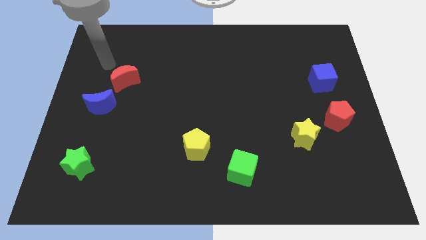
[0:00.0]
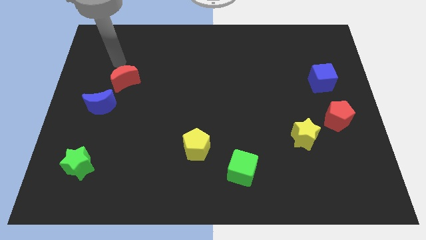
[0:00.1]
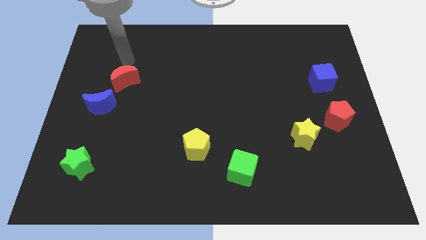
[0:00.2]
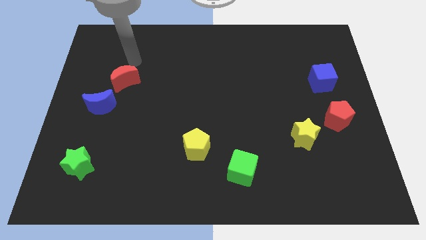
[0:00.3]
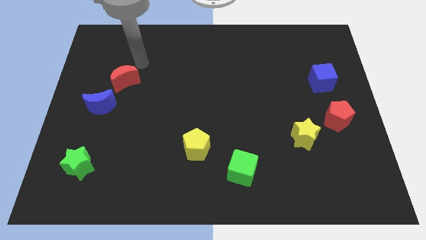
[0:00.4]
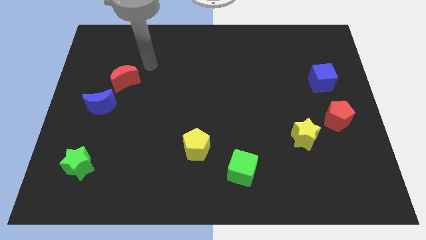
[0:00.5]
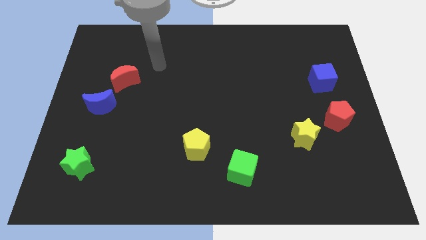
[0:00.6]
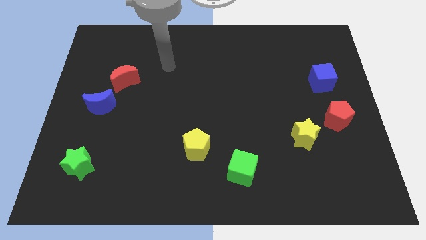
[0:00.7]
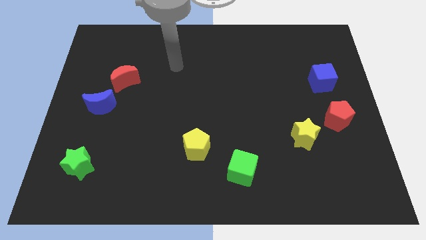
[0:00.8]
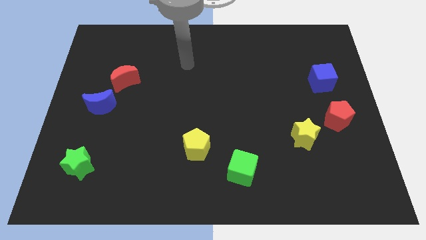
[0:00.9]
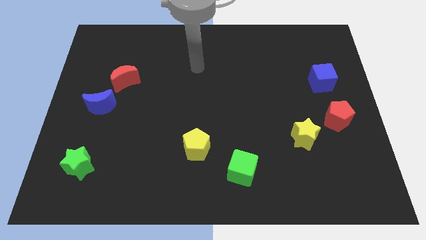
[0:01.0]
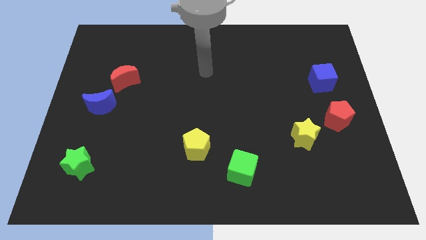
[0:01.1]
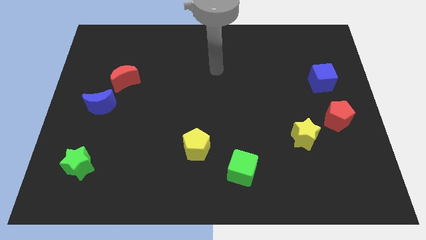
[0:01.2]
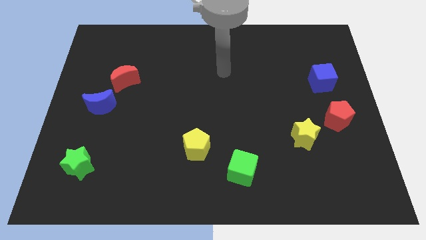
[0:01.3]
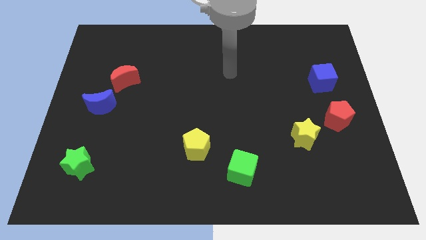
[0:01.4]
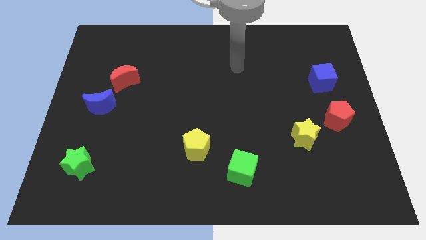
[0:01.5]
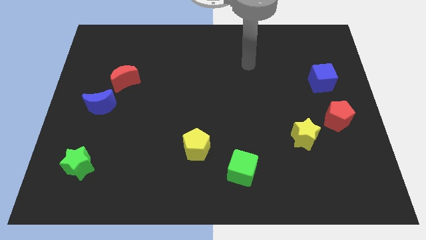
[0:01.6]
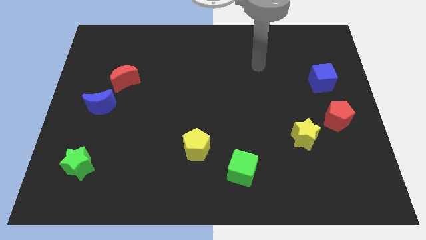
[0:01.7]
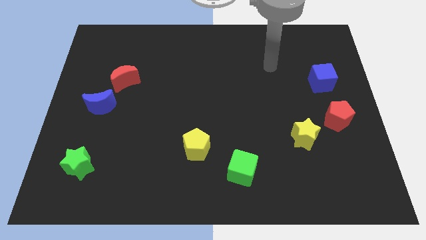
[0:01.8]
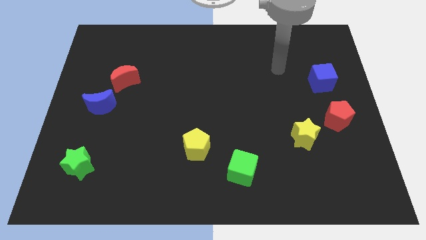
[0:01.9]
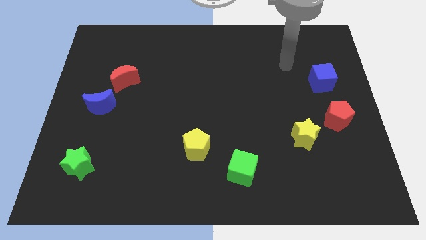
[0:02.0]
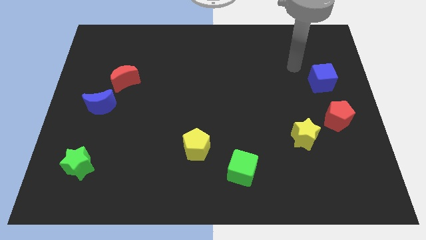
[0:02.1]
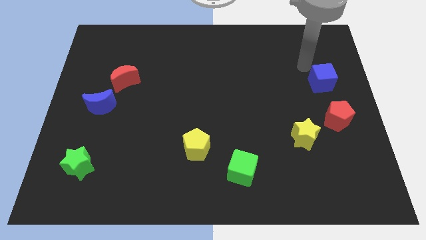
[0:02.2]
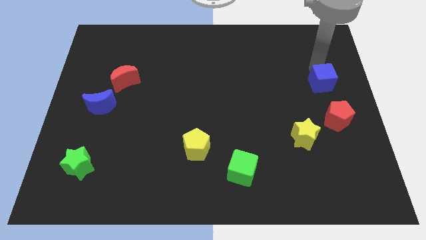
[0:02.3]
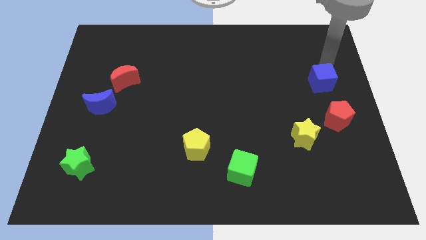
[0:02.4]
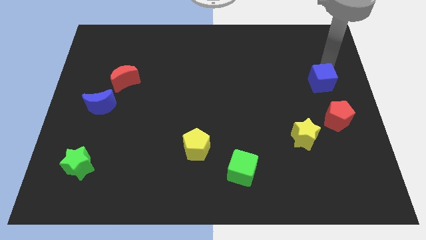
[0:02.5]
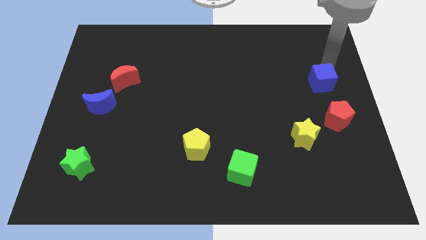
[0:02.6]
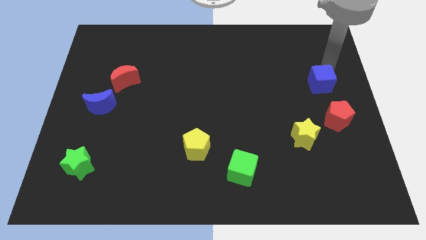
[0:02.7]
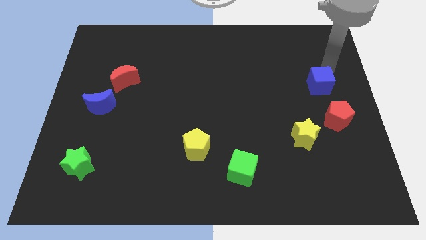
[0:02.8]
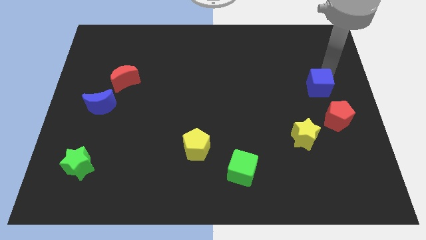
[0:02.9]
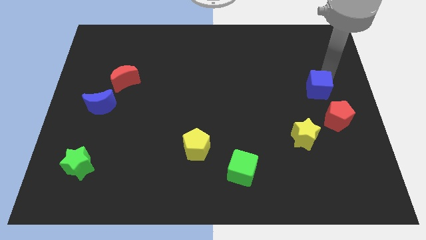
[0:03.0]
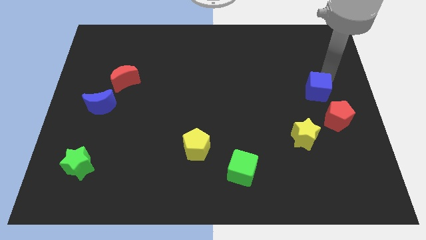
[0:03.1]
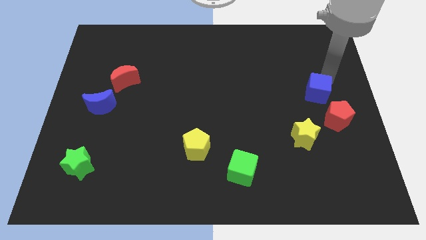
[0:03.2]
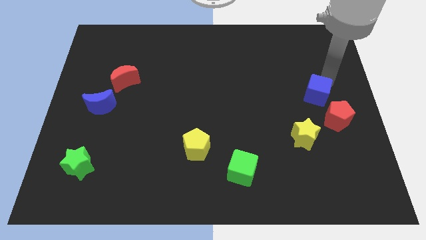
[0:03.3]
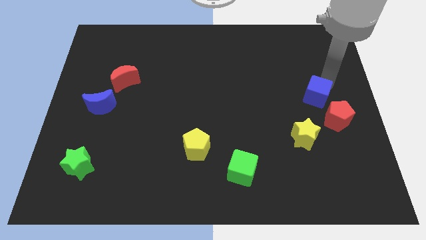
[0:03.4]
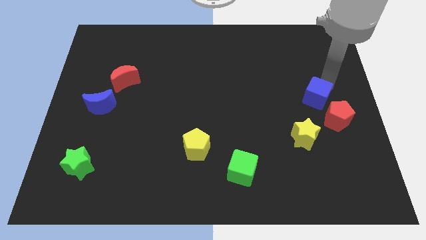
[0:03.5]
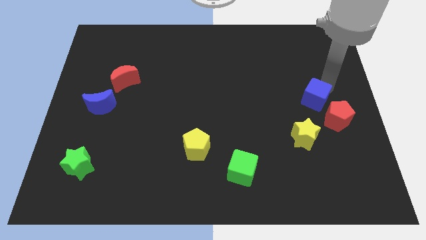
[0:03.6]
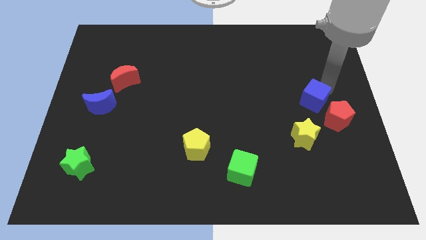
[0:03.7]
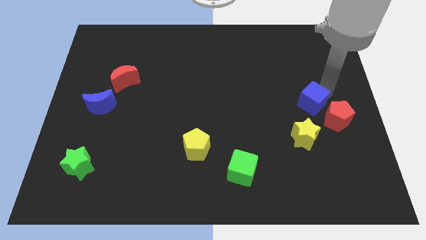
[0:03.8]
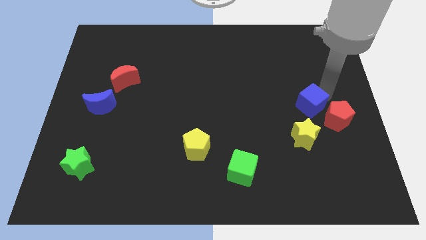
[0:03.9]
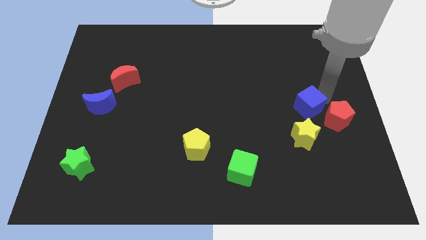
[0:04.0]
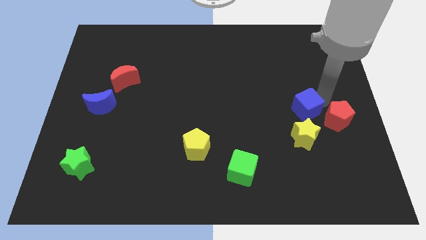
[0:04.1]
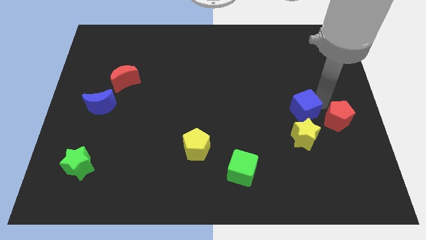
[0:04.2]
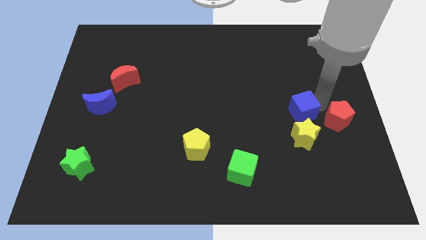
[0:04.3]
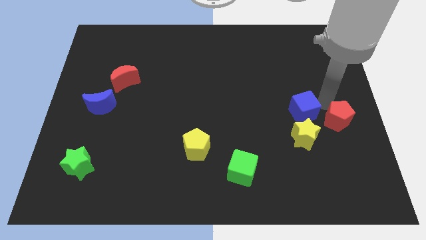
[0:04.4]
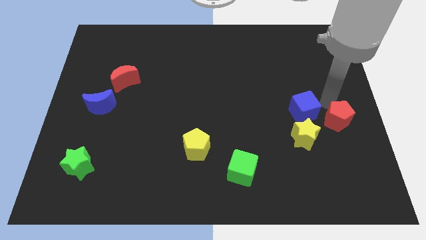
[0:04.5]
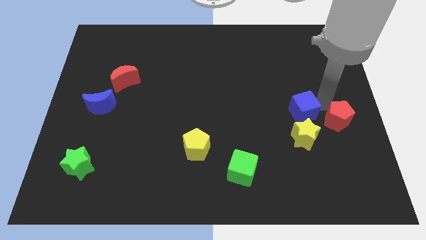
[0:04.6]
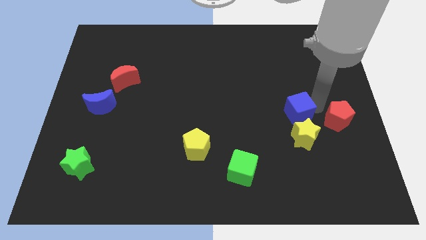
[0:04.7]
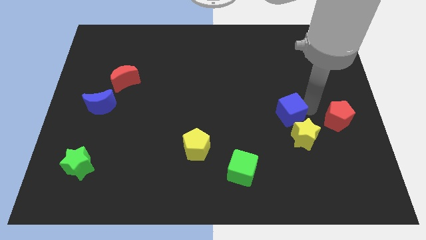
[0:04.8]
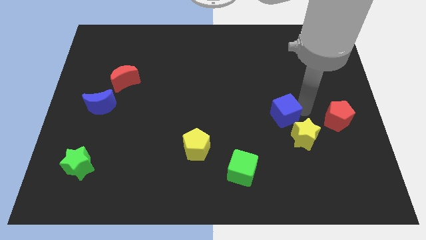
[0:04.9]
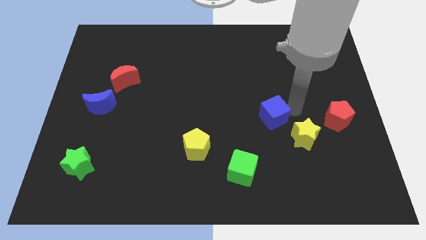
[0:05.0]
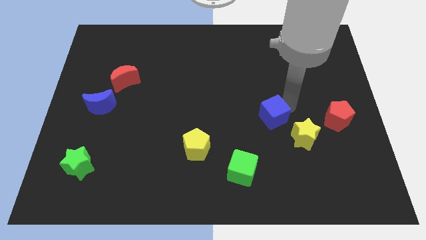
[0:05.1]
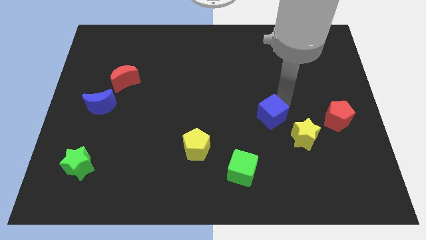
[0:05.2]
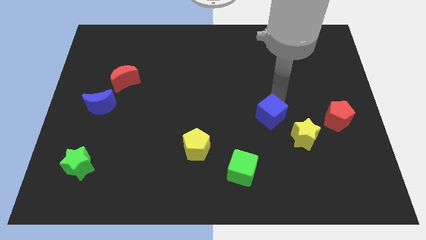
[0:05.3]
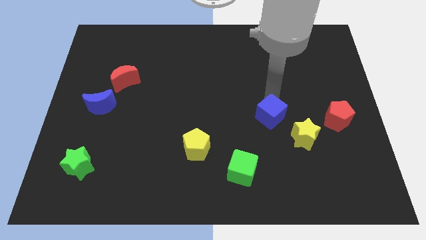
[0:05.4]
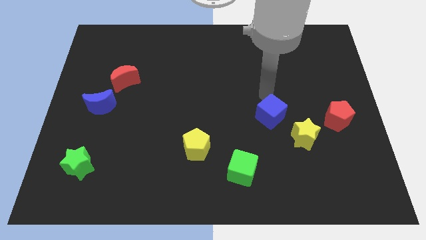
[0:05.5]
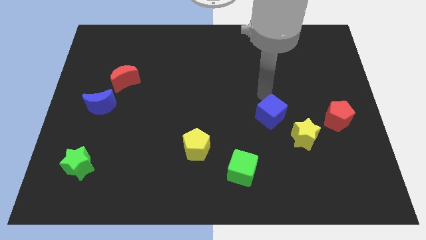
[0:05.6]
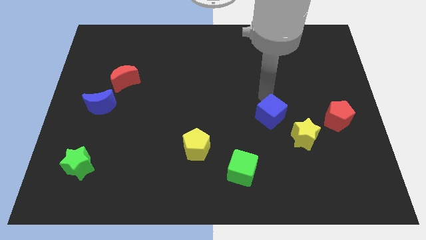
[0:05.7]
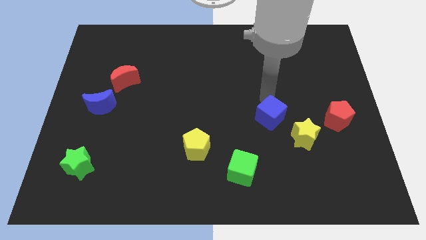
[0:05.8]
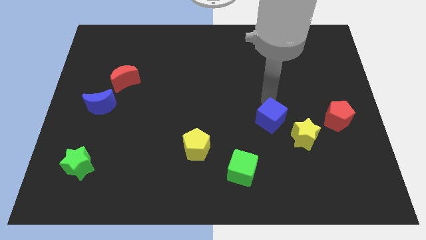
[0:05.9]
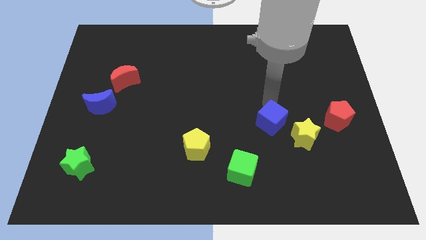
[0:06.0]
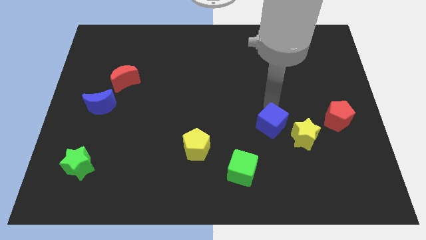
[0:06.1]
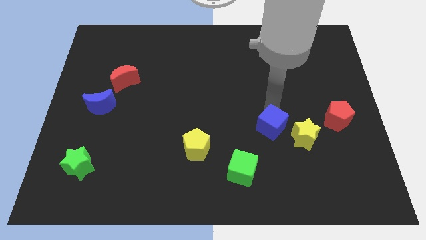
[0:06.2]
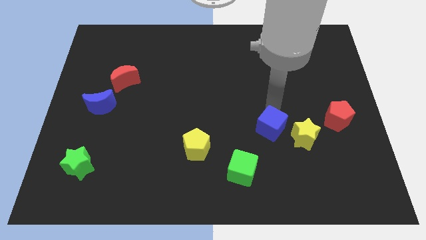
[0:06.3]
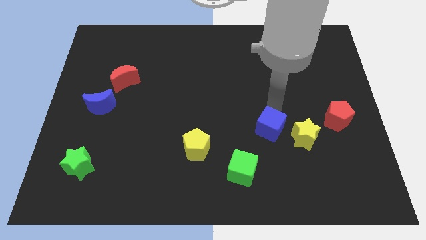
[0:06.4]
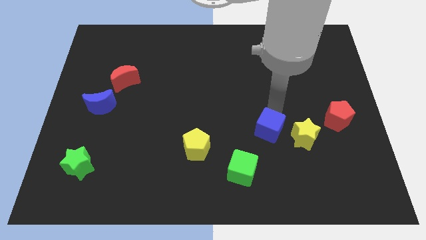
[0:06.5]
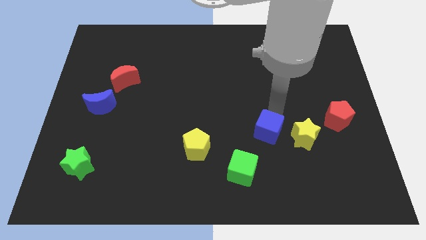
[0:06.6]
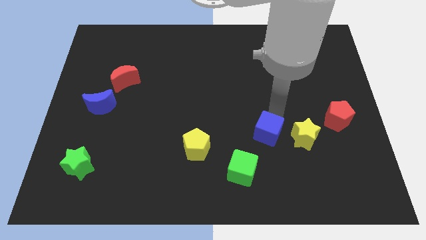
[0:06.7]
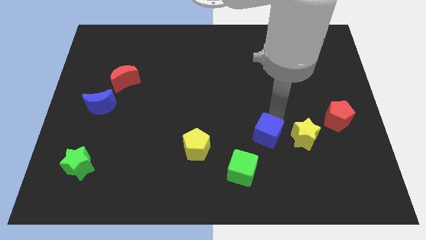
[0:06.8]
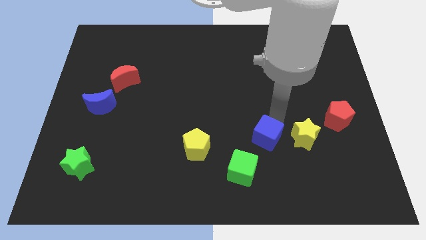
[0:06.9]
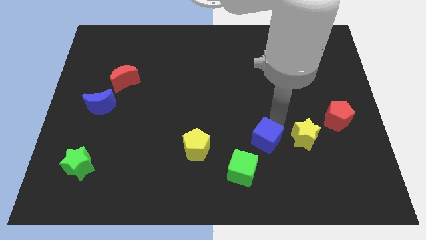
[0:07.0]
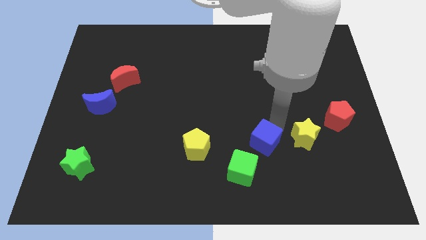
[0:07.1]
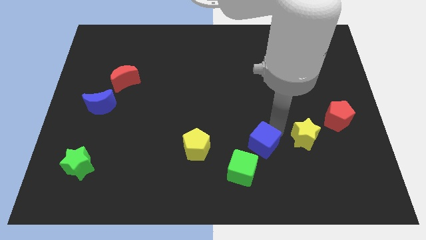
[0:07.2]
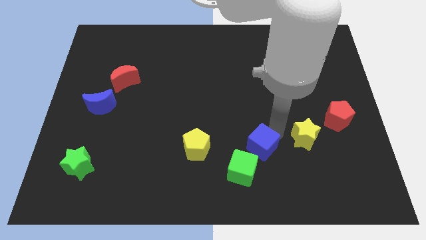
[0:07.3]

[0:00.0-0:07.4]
put the blue cube diagonally down and to the left of the yellow star
